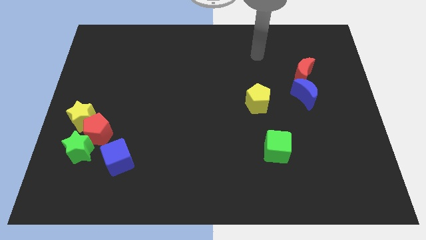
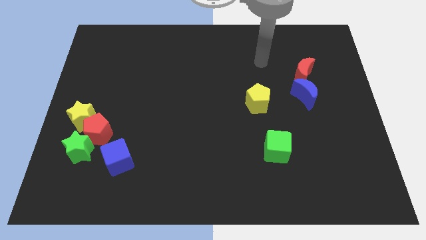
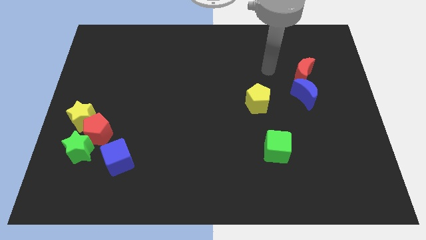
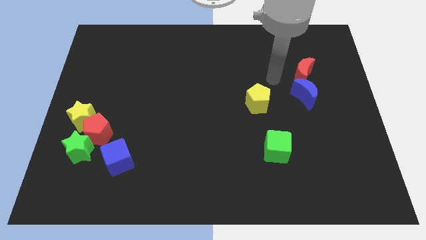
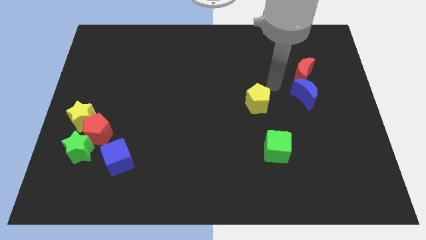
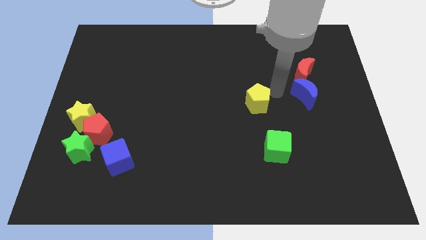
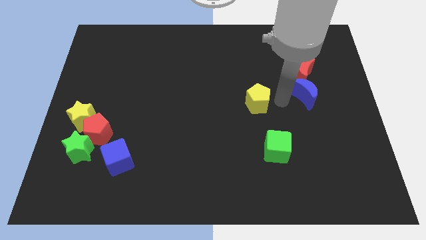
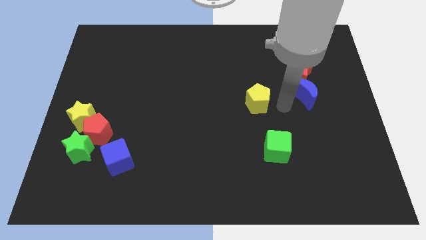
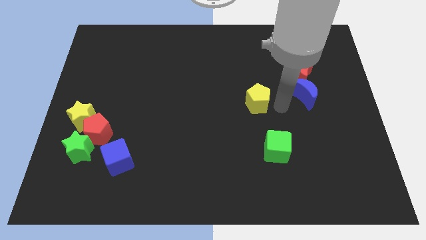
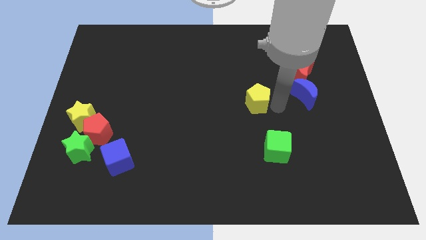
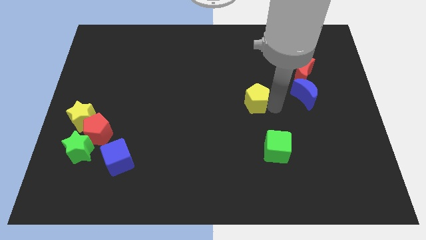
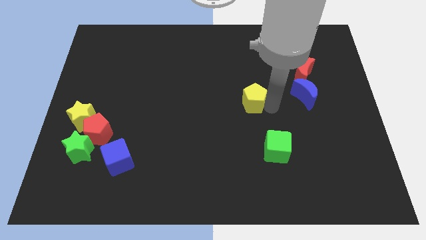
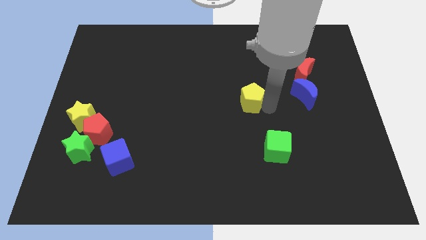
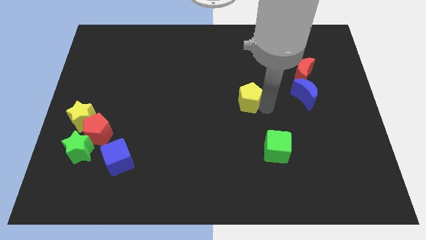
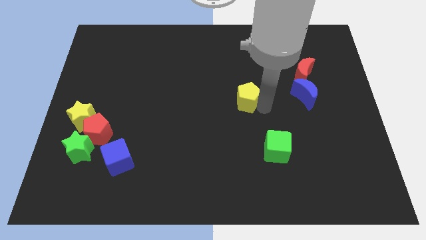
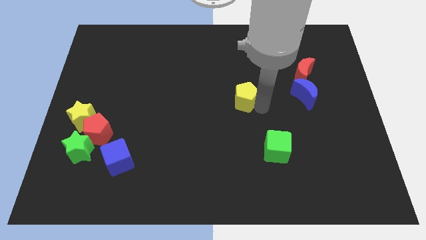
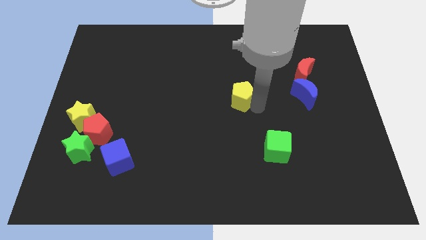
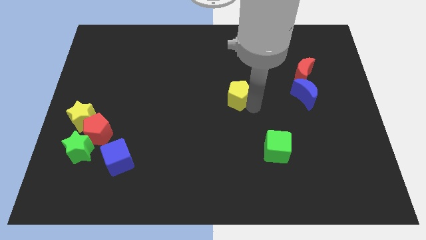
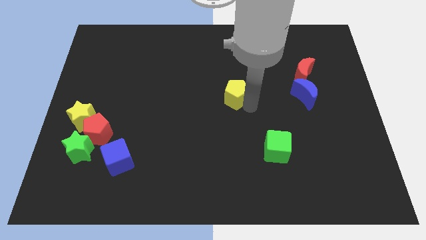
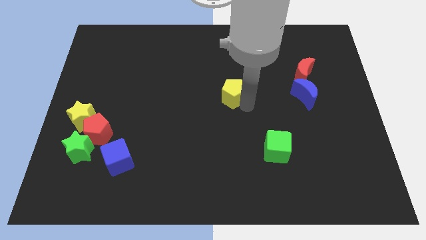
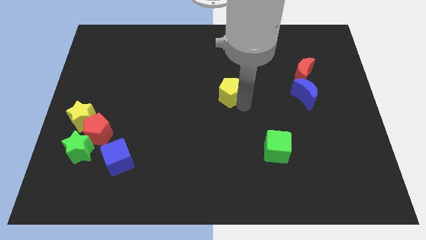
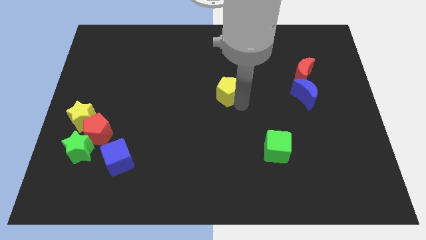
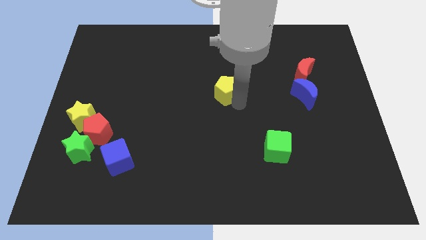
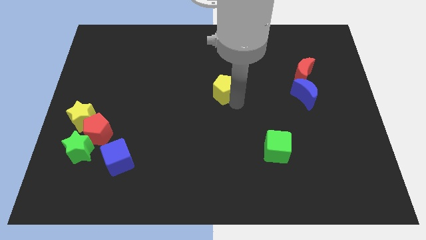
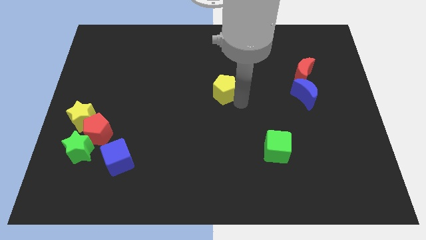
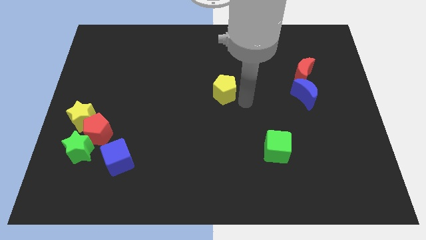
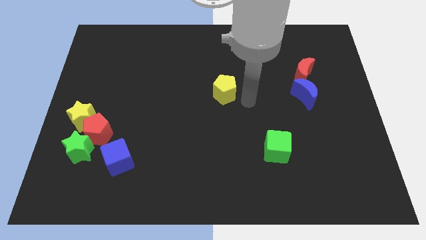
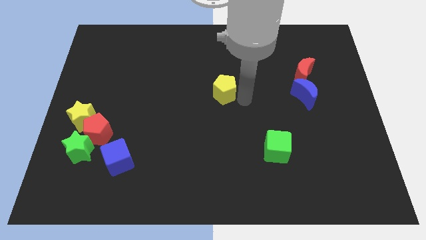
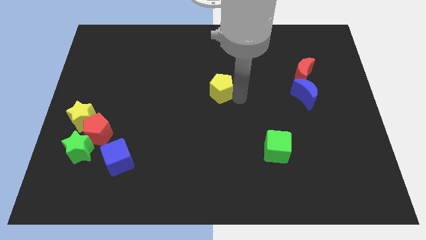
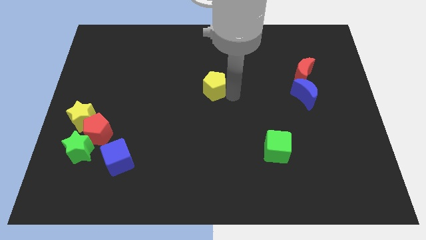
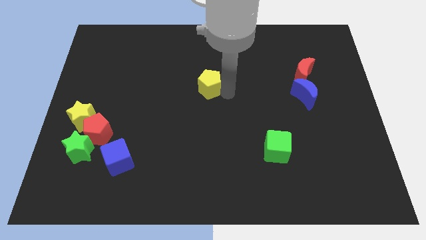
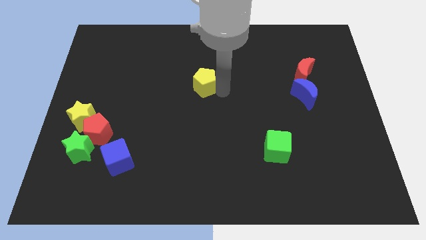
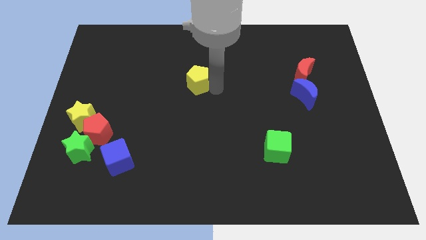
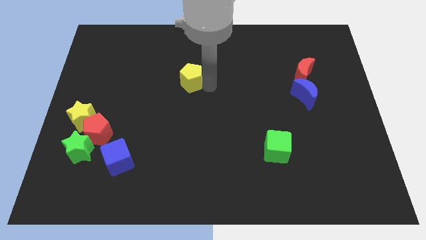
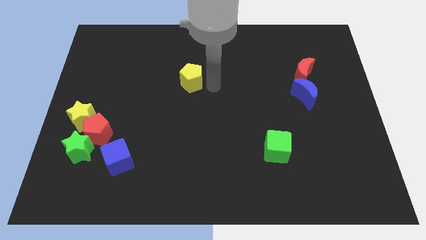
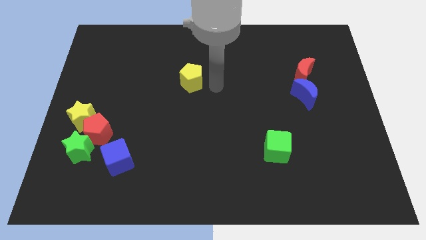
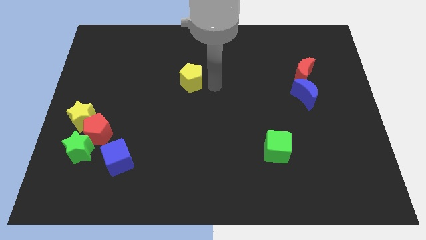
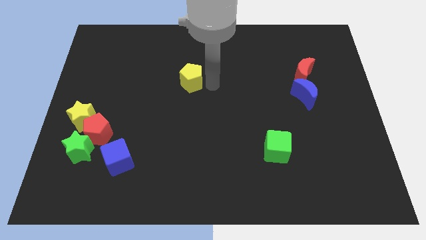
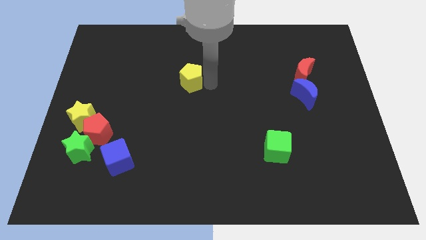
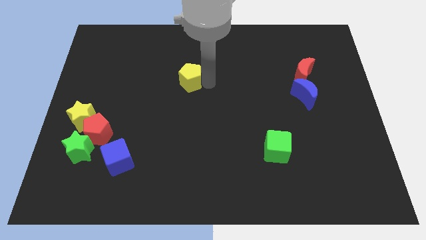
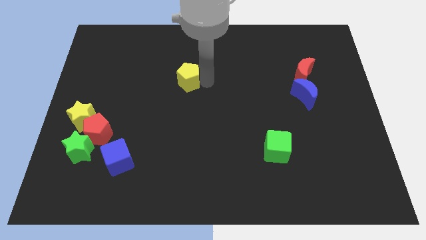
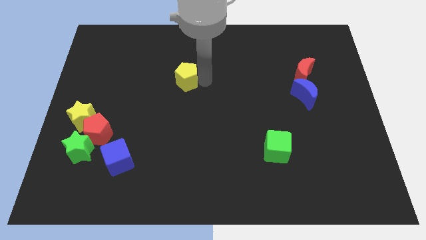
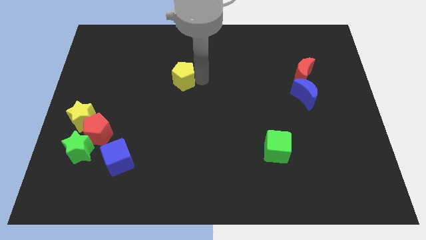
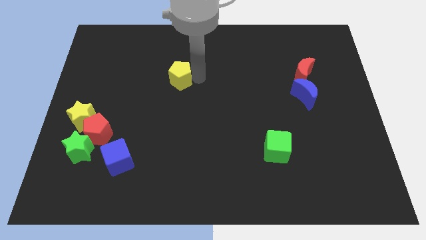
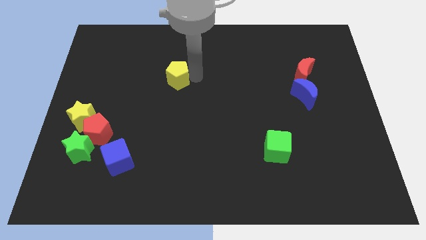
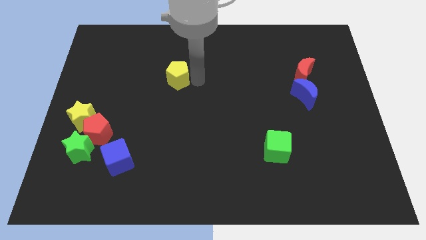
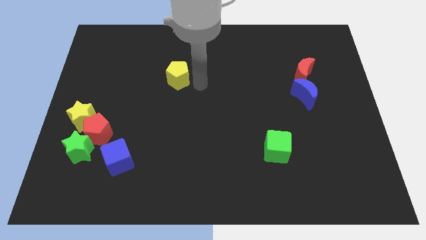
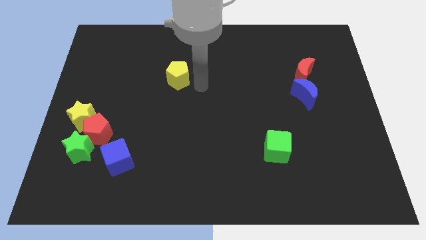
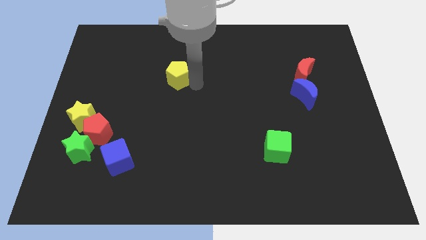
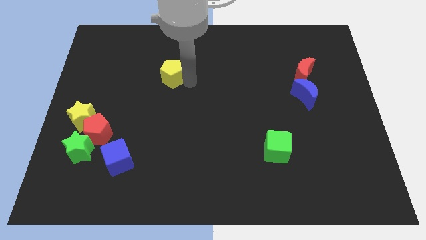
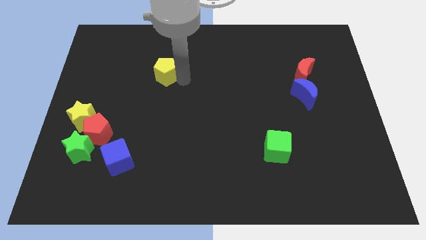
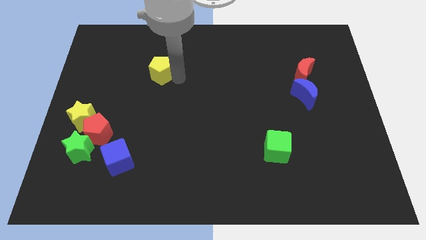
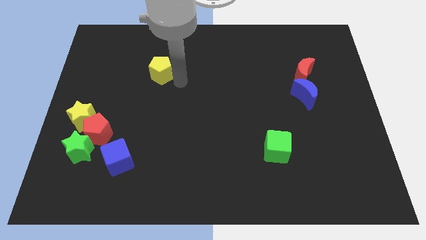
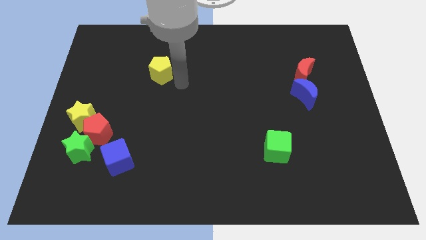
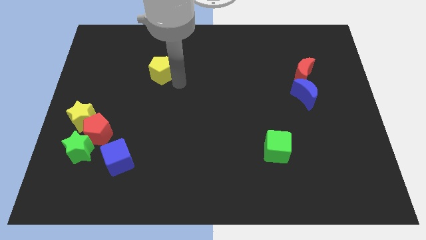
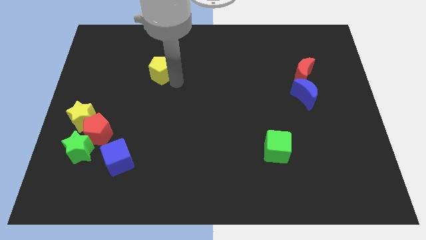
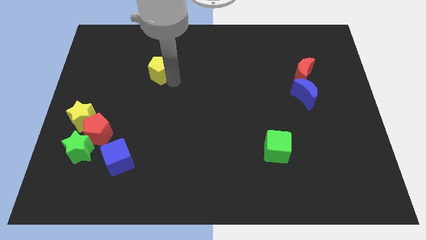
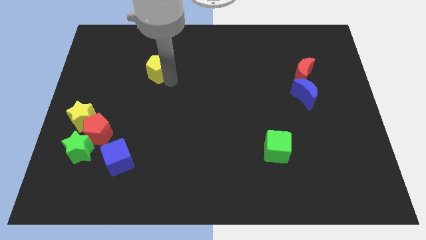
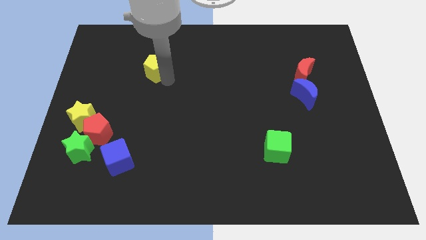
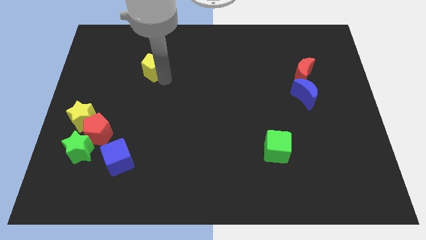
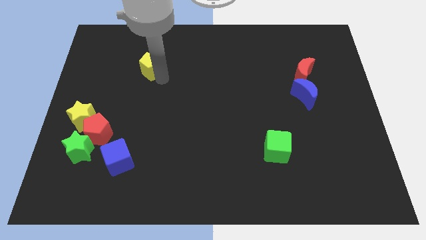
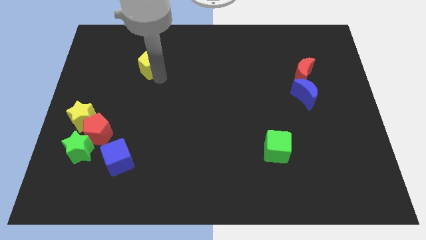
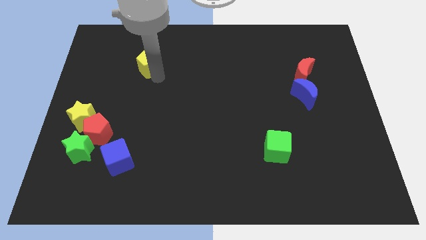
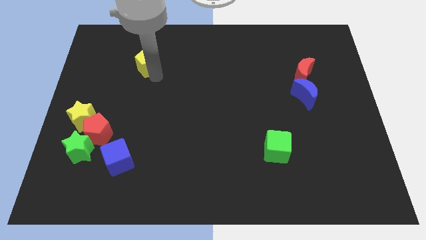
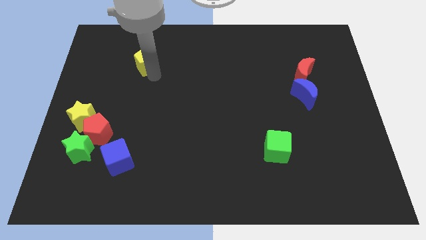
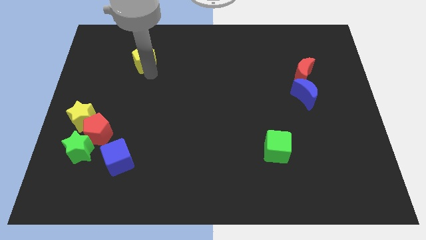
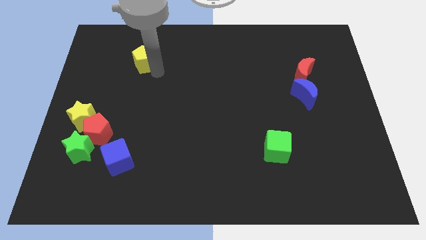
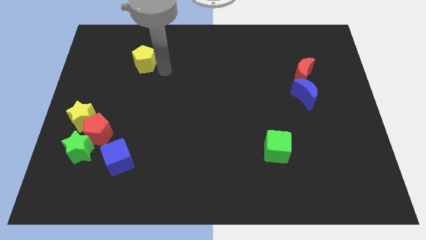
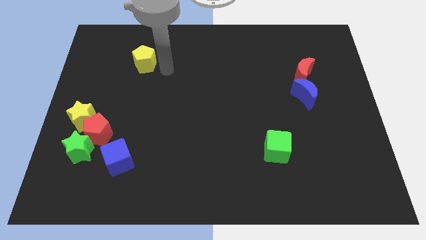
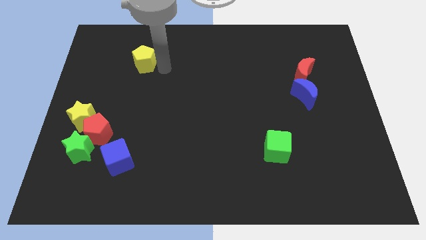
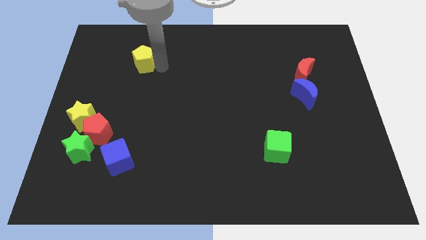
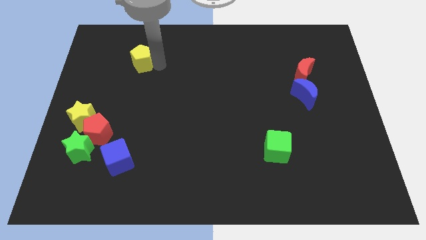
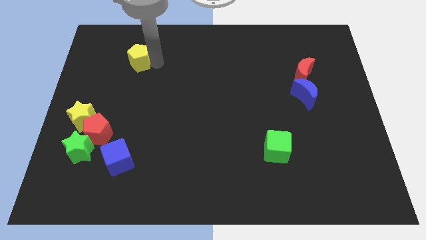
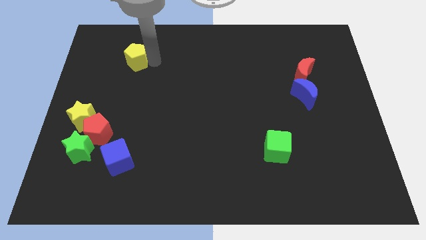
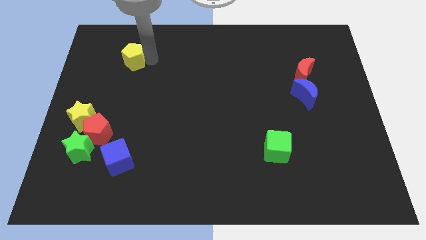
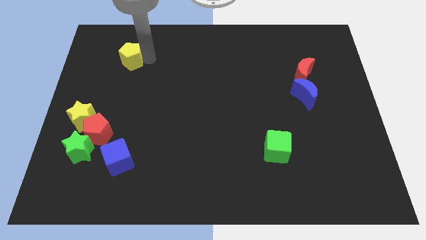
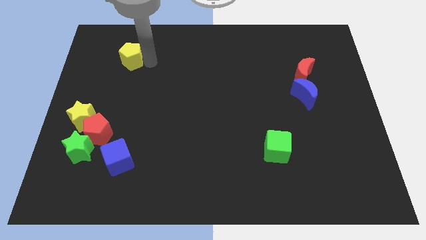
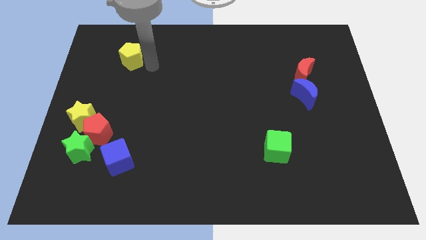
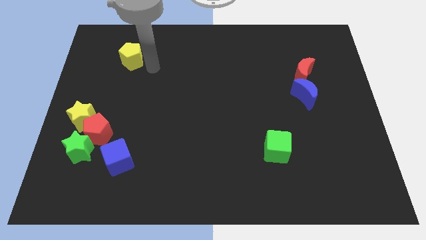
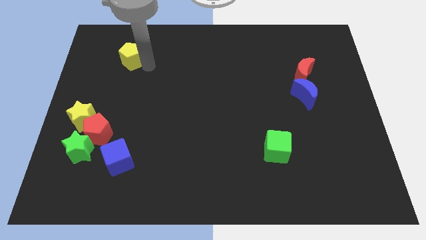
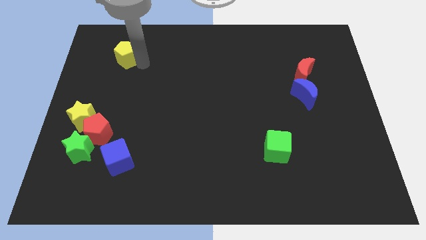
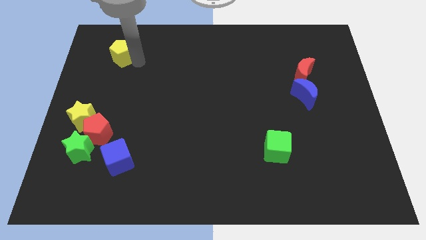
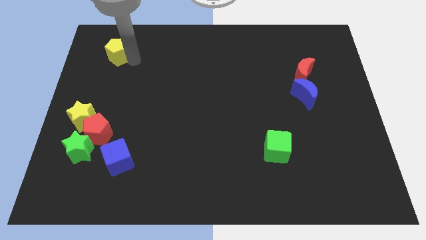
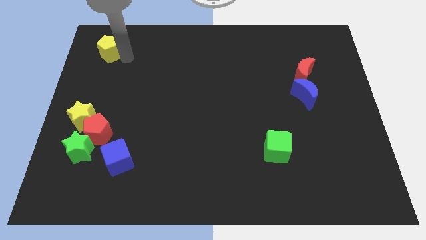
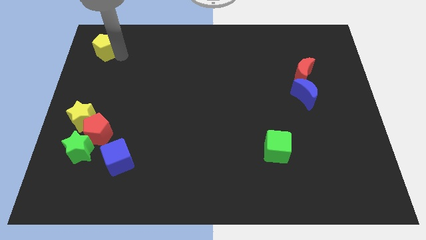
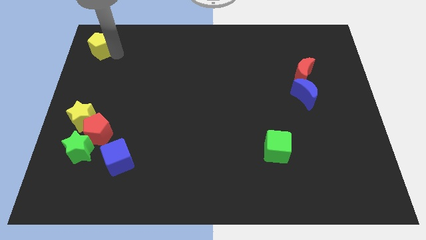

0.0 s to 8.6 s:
move the yellow pentagon to the top left corner
